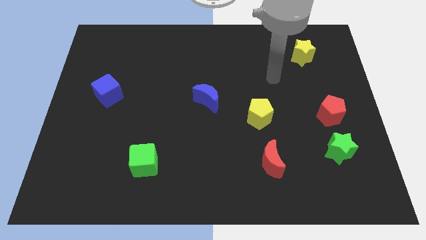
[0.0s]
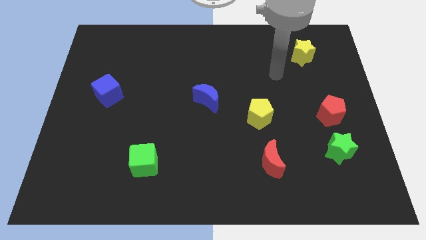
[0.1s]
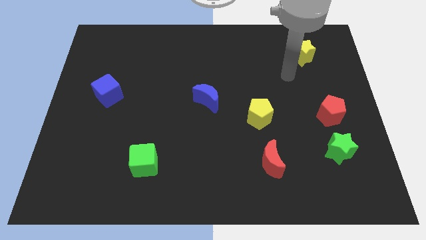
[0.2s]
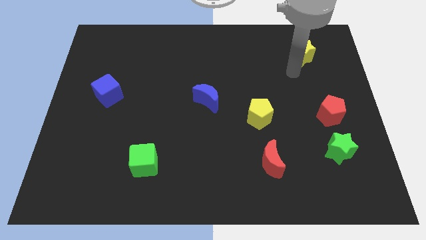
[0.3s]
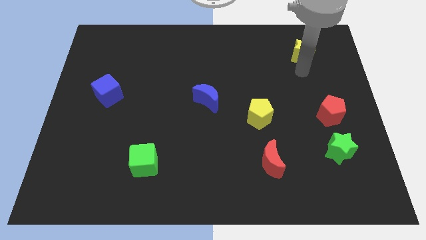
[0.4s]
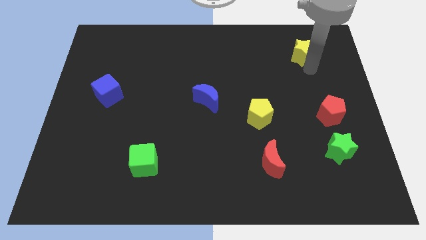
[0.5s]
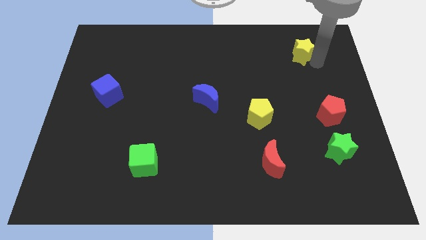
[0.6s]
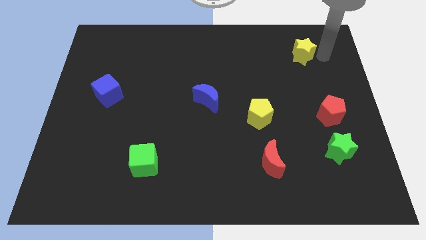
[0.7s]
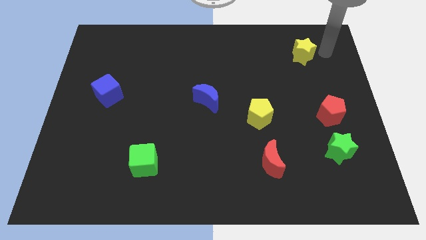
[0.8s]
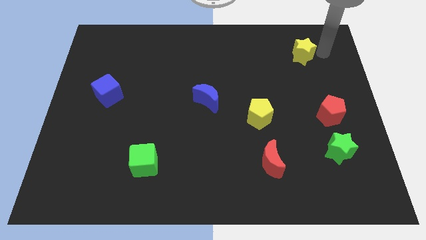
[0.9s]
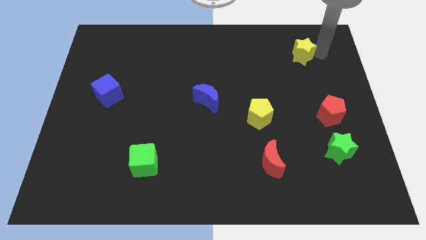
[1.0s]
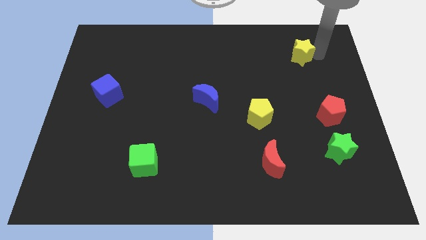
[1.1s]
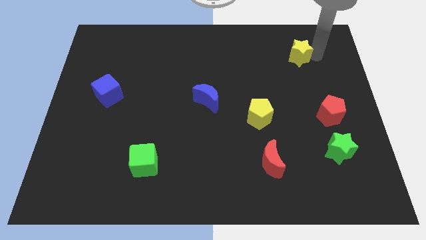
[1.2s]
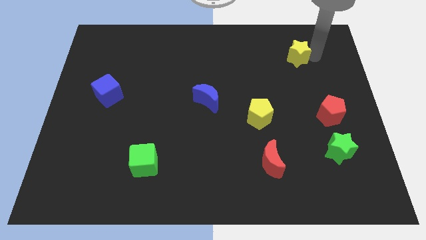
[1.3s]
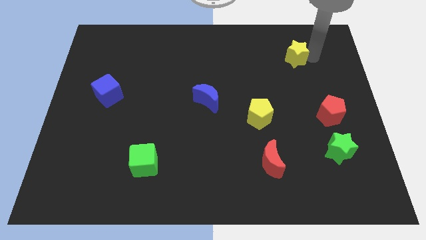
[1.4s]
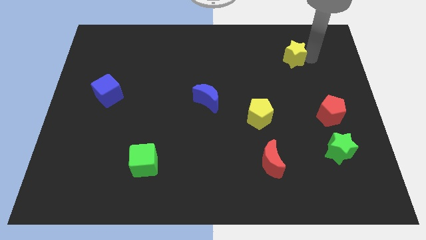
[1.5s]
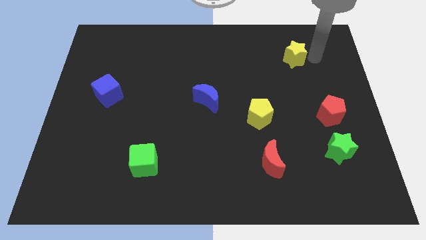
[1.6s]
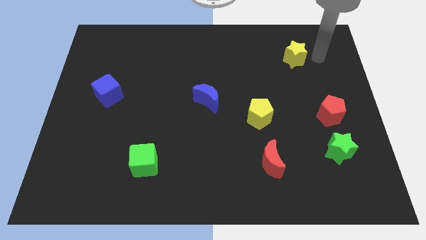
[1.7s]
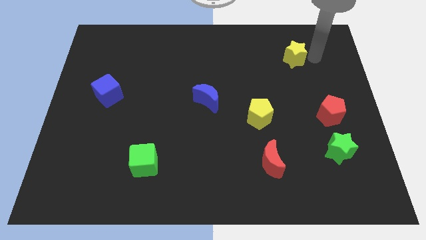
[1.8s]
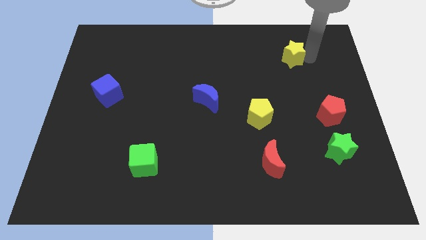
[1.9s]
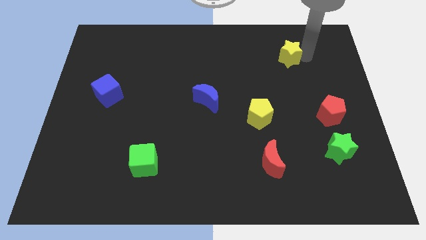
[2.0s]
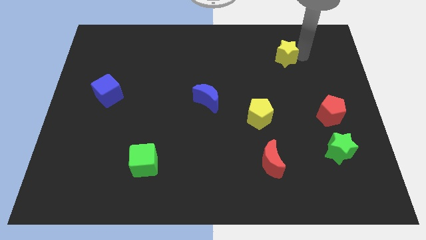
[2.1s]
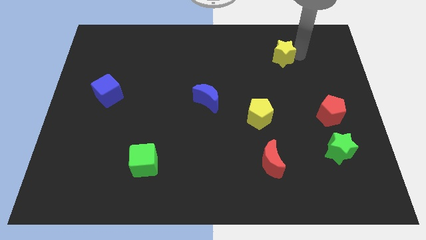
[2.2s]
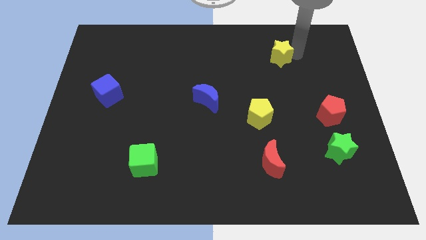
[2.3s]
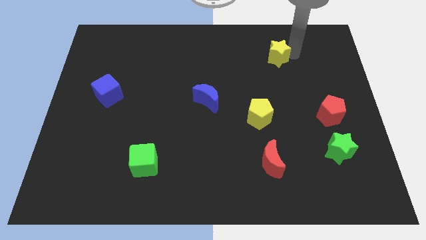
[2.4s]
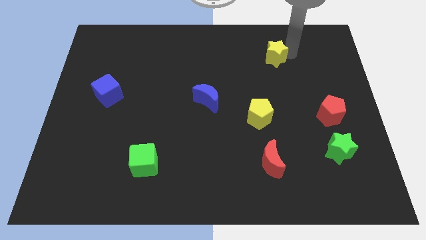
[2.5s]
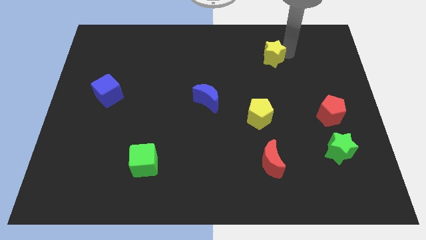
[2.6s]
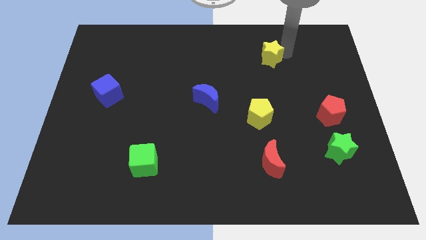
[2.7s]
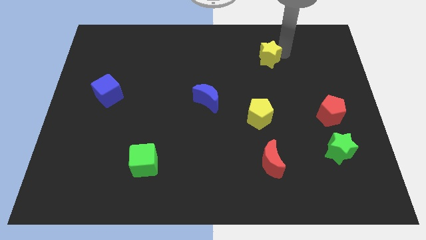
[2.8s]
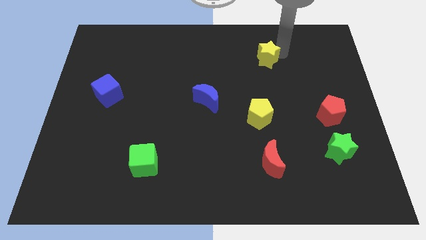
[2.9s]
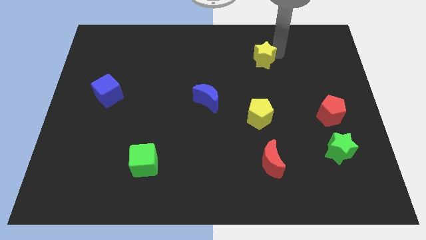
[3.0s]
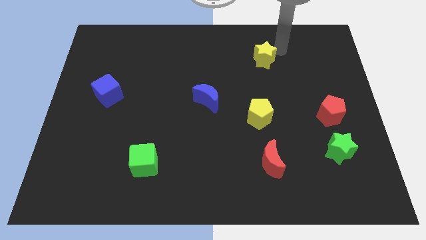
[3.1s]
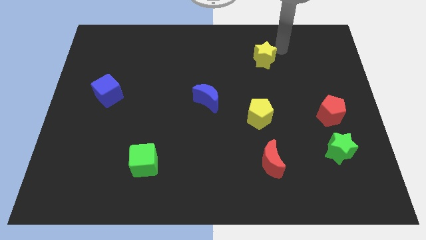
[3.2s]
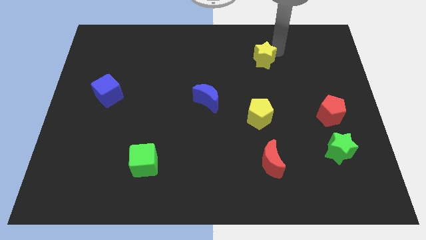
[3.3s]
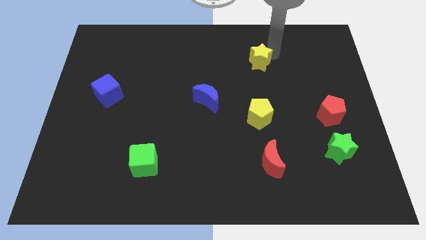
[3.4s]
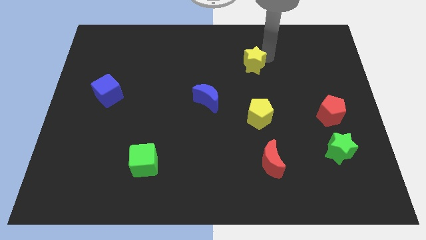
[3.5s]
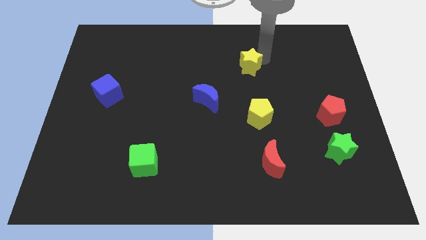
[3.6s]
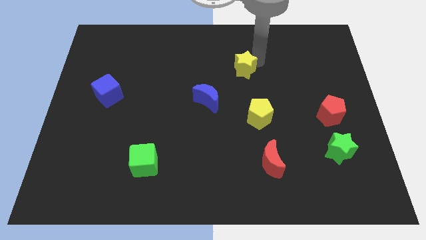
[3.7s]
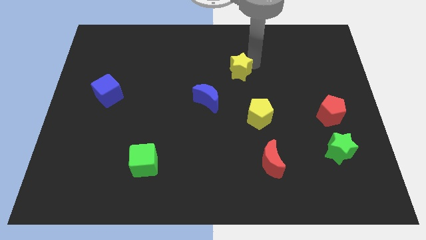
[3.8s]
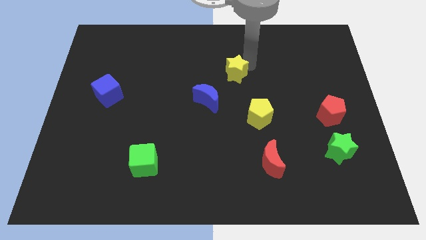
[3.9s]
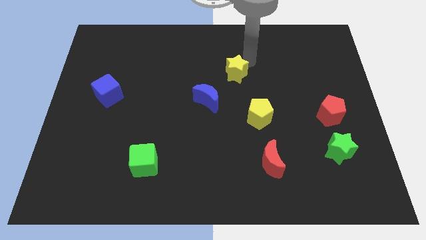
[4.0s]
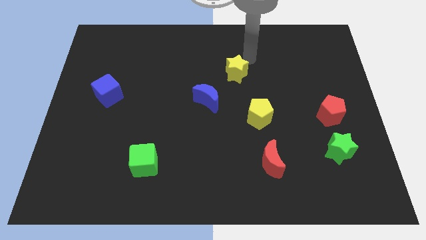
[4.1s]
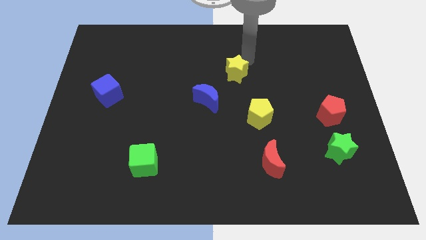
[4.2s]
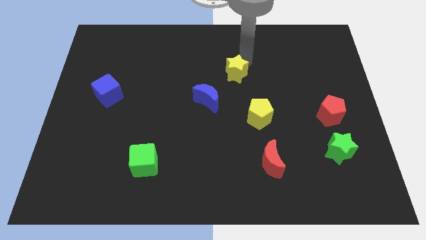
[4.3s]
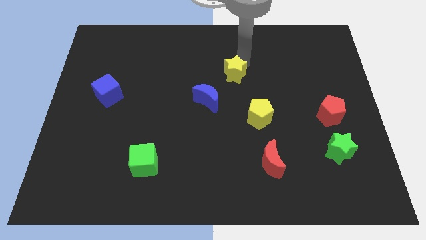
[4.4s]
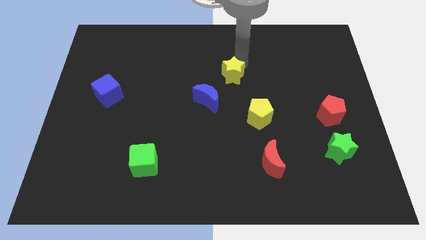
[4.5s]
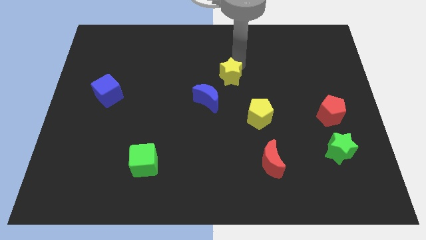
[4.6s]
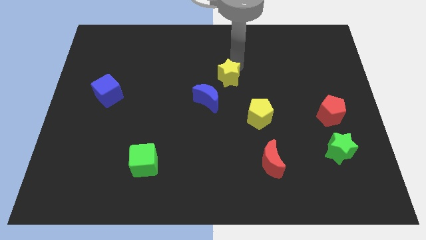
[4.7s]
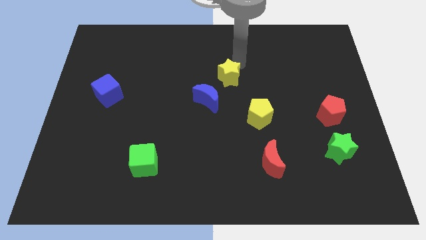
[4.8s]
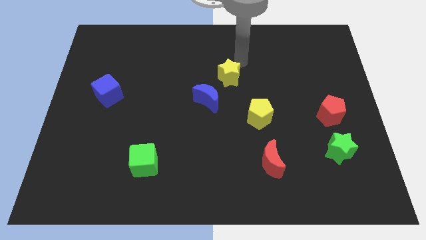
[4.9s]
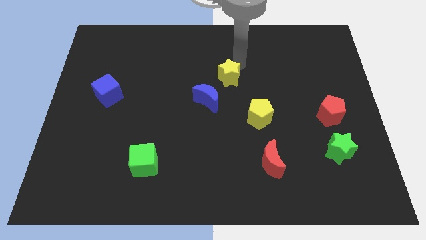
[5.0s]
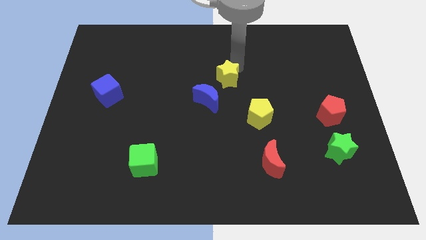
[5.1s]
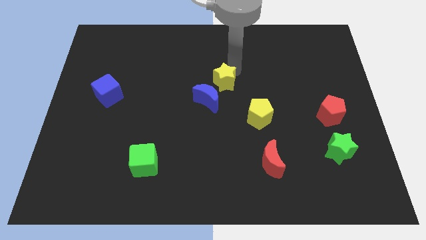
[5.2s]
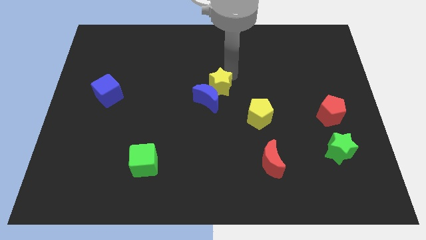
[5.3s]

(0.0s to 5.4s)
slide the yellow star close to the blue moon

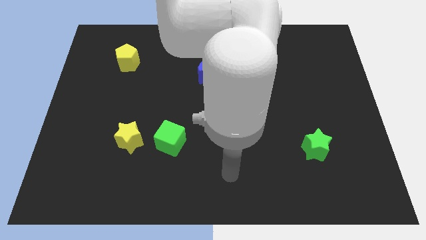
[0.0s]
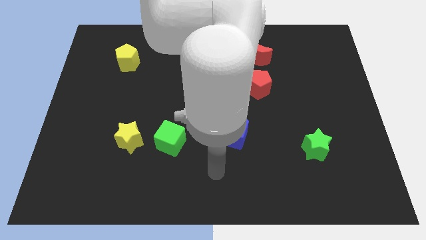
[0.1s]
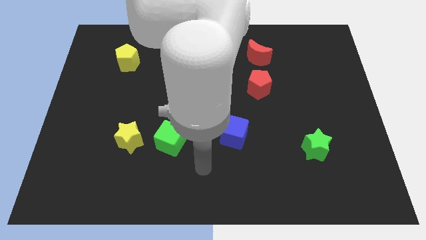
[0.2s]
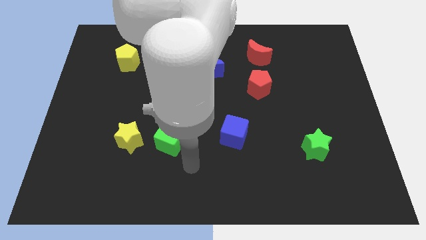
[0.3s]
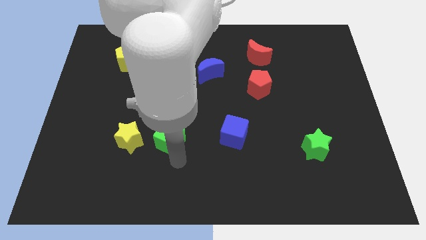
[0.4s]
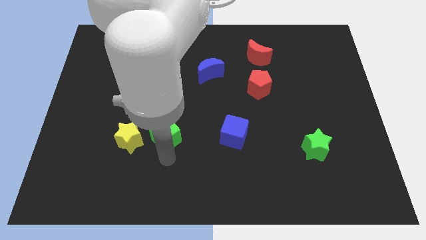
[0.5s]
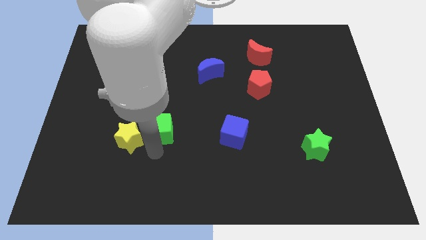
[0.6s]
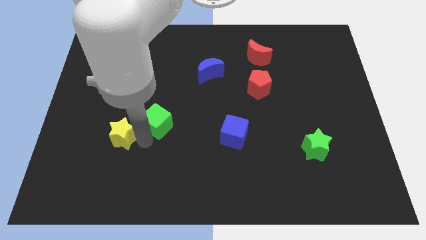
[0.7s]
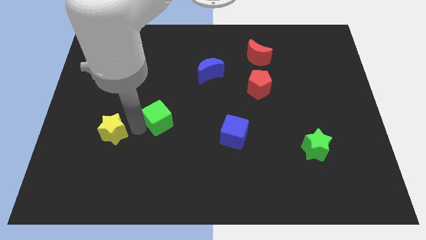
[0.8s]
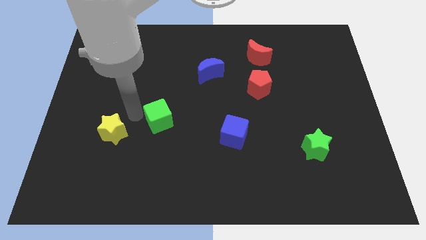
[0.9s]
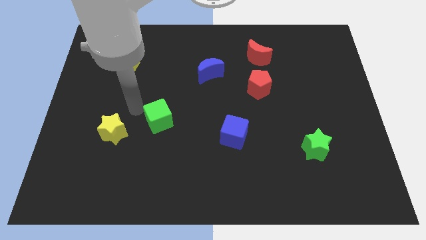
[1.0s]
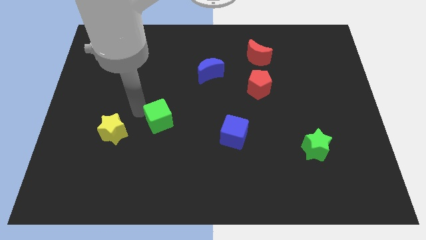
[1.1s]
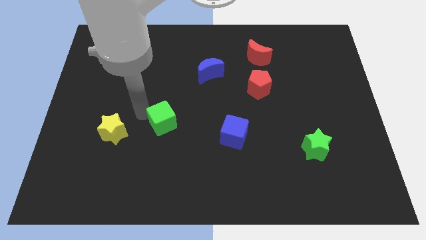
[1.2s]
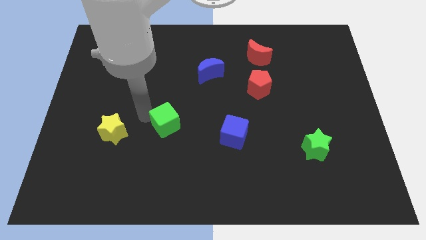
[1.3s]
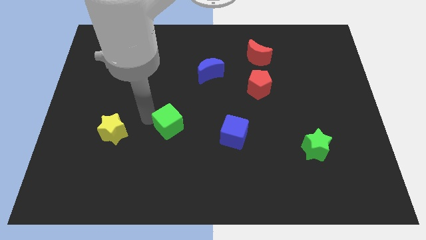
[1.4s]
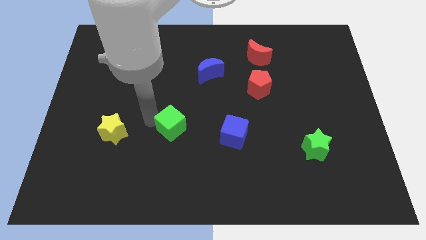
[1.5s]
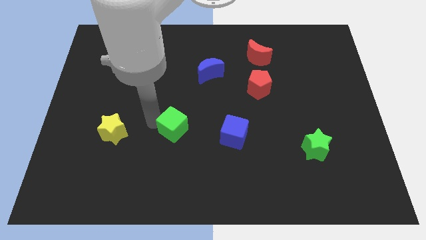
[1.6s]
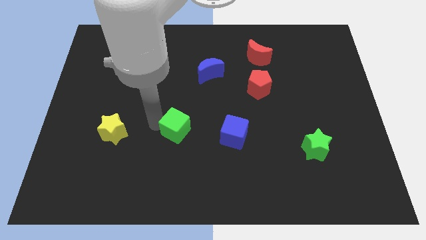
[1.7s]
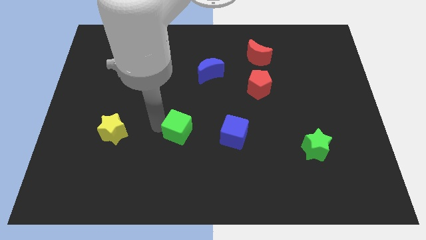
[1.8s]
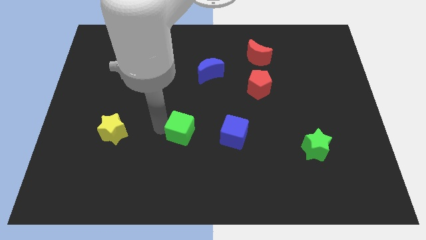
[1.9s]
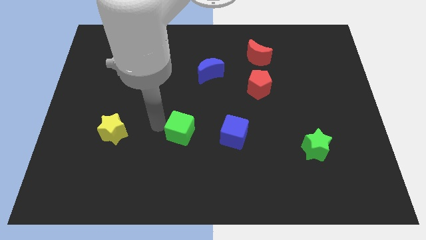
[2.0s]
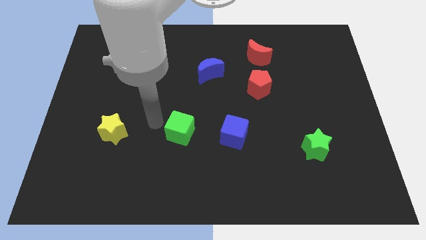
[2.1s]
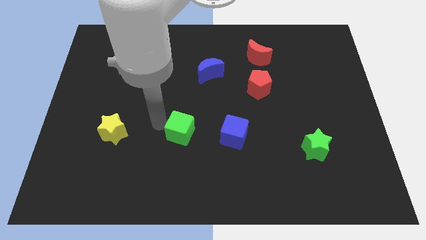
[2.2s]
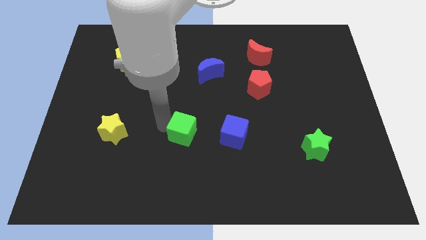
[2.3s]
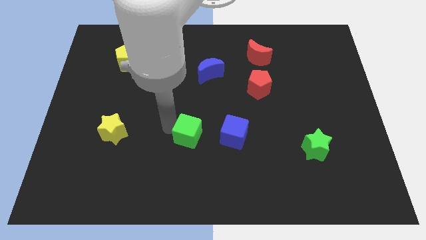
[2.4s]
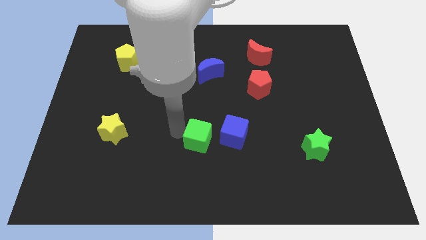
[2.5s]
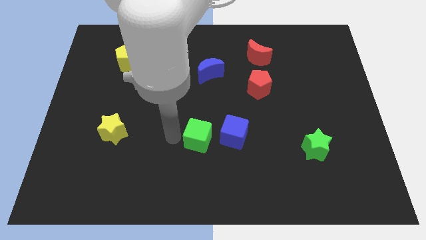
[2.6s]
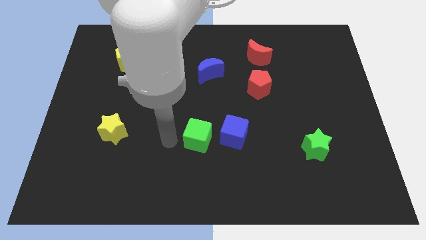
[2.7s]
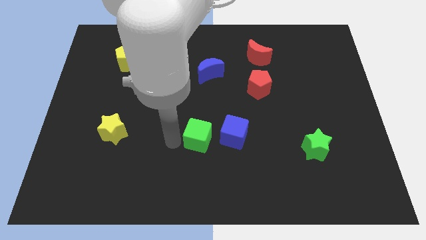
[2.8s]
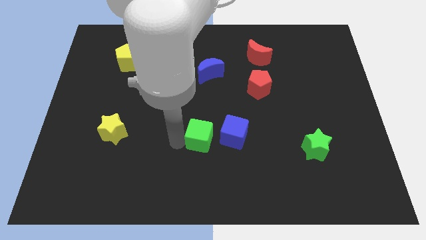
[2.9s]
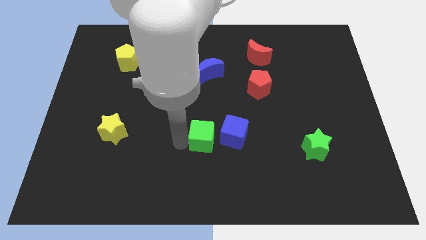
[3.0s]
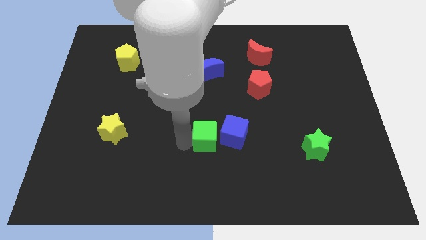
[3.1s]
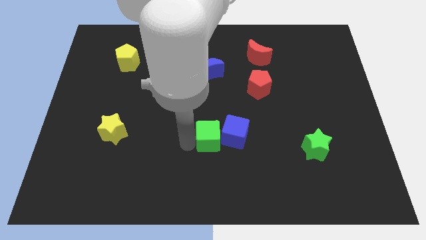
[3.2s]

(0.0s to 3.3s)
put the green cube towards the blue cube
